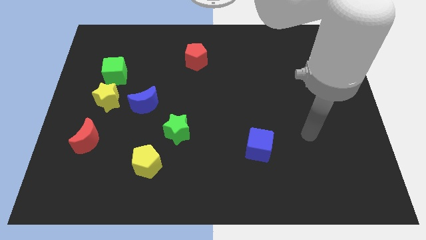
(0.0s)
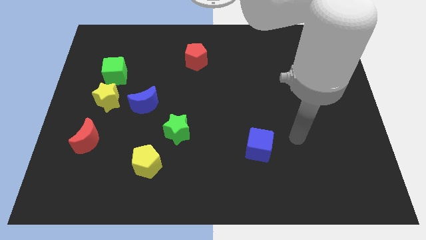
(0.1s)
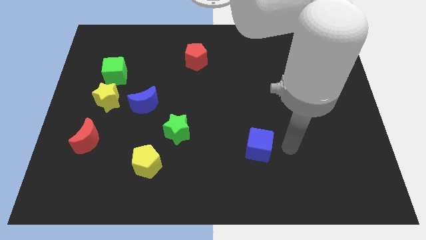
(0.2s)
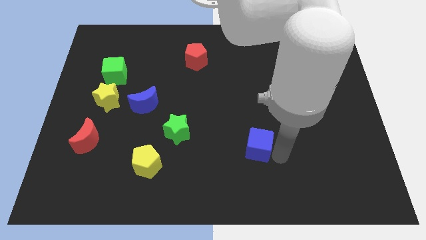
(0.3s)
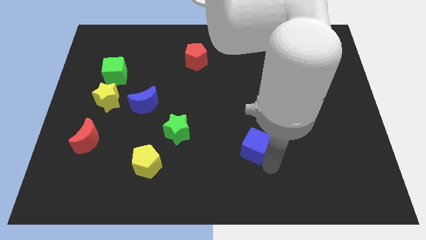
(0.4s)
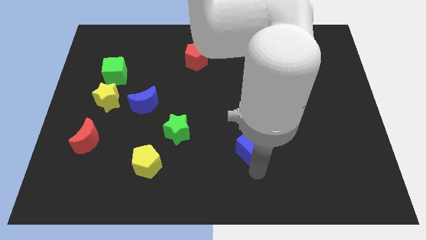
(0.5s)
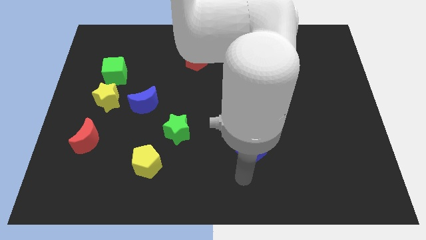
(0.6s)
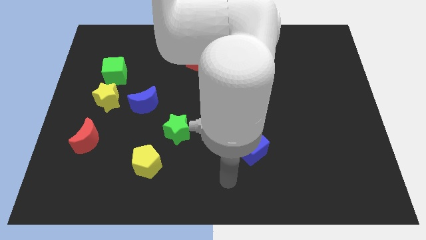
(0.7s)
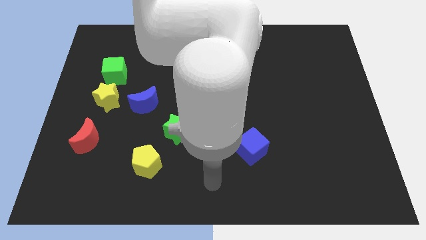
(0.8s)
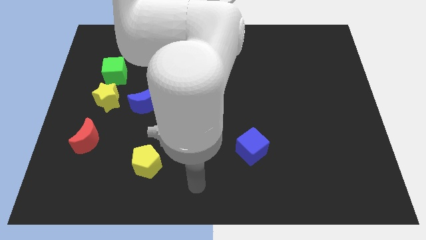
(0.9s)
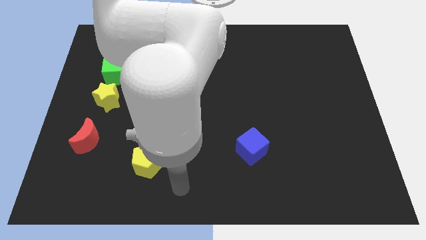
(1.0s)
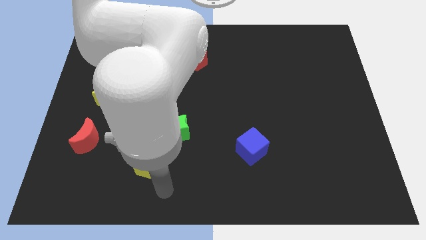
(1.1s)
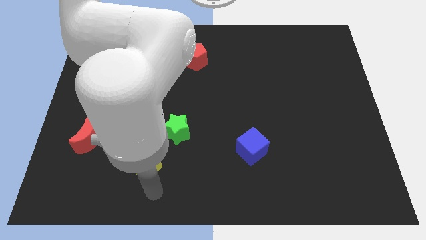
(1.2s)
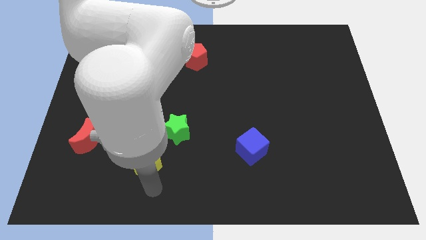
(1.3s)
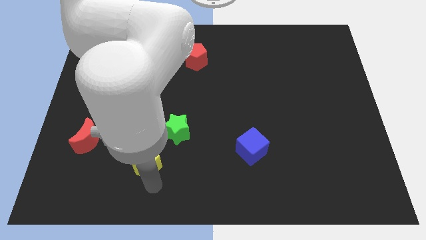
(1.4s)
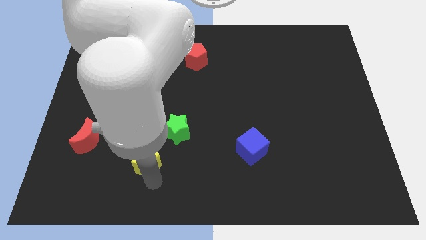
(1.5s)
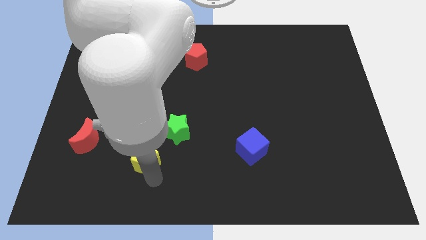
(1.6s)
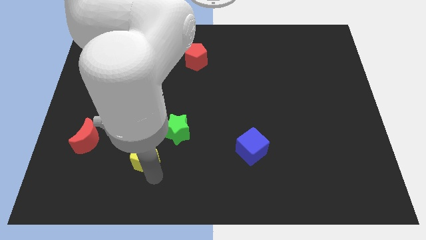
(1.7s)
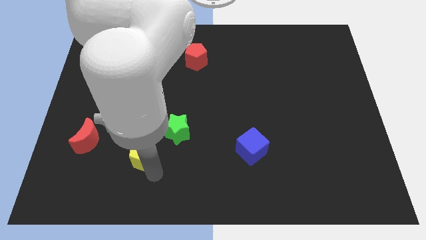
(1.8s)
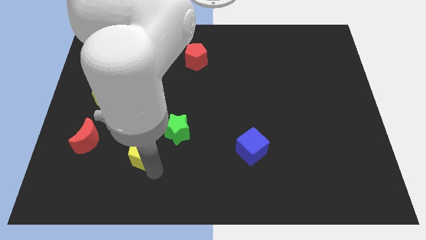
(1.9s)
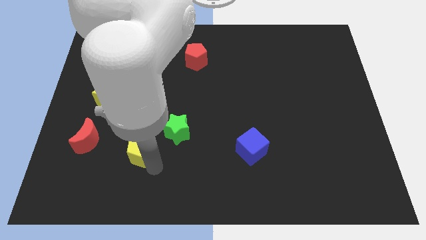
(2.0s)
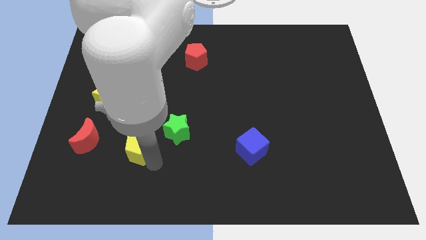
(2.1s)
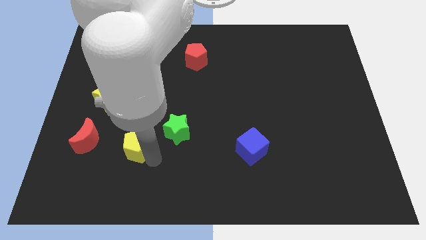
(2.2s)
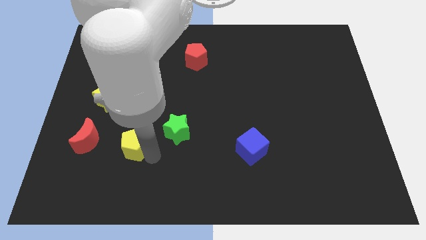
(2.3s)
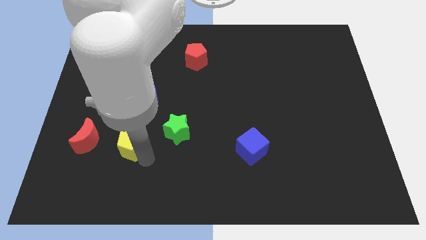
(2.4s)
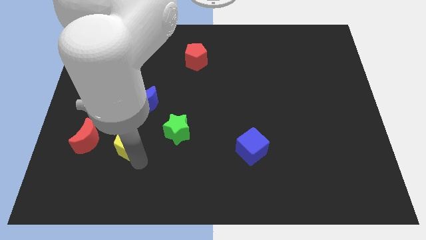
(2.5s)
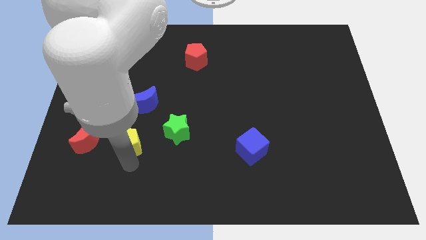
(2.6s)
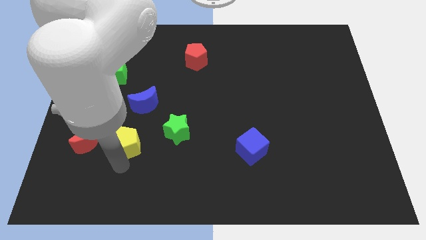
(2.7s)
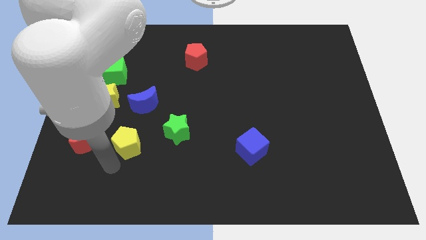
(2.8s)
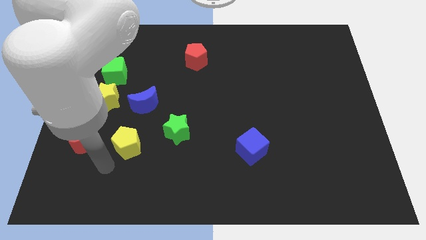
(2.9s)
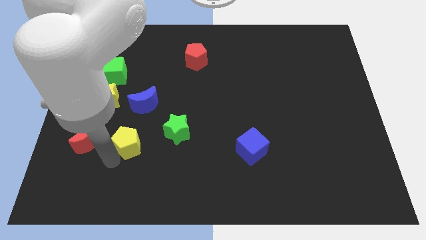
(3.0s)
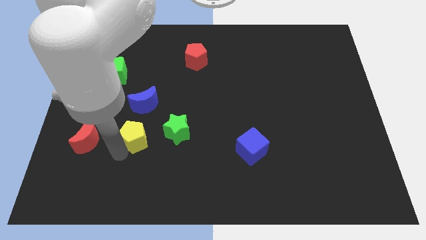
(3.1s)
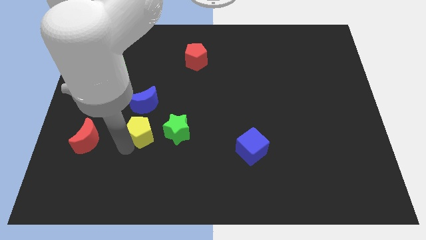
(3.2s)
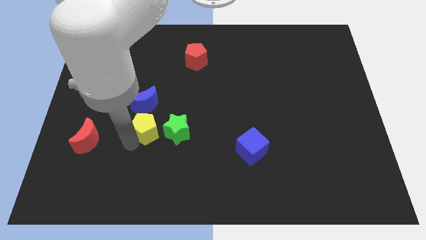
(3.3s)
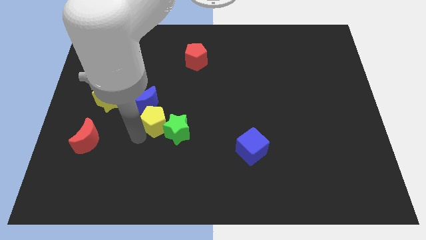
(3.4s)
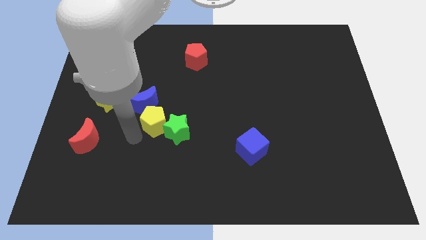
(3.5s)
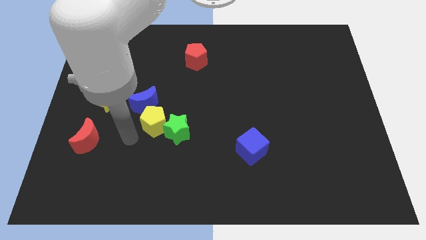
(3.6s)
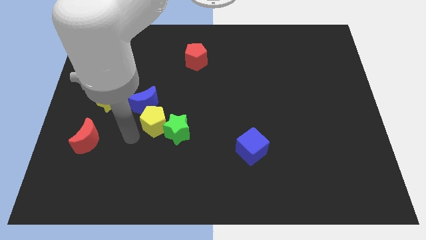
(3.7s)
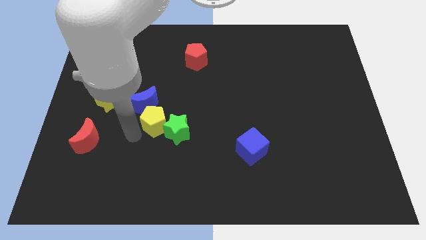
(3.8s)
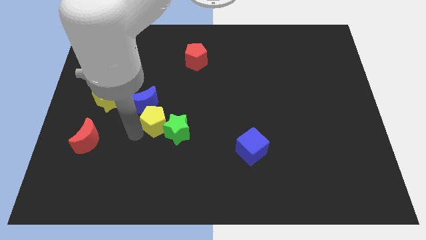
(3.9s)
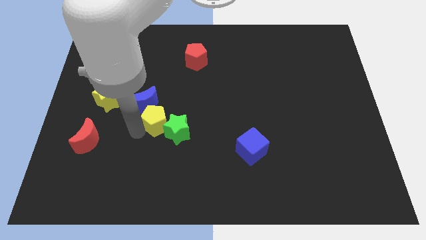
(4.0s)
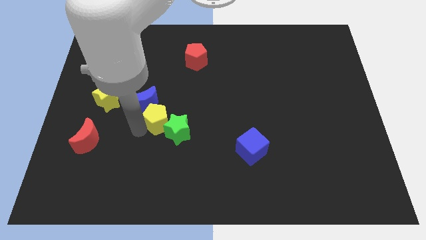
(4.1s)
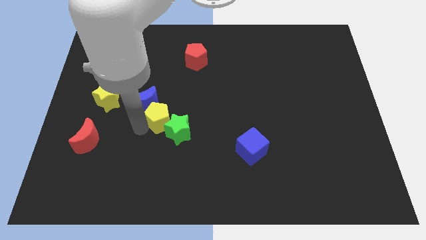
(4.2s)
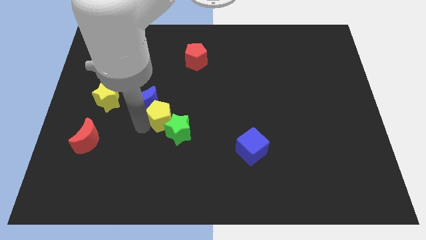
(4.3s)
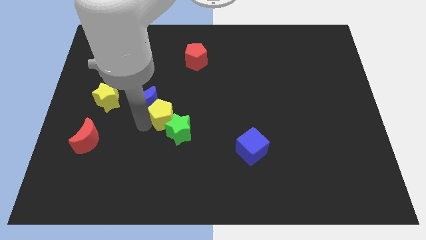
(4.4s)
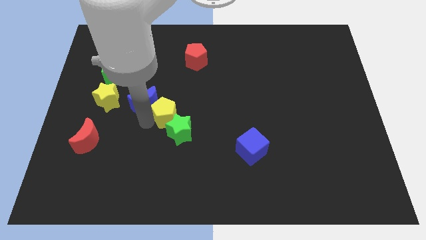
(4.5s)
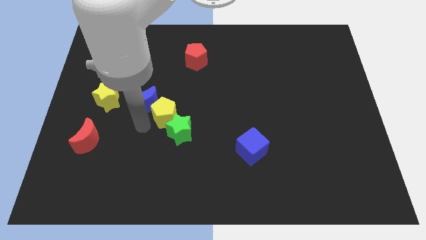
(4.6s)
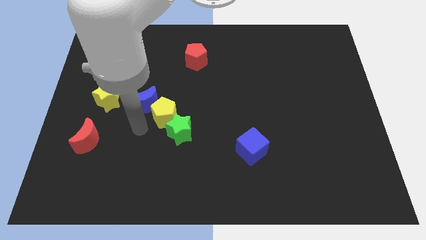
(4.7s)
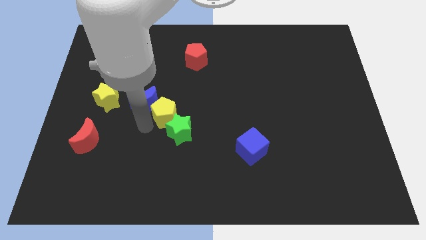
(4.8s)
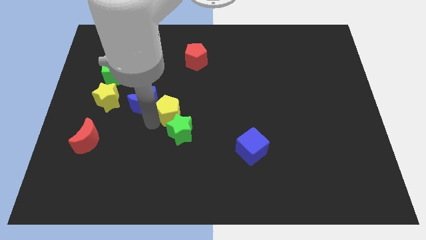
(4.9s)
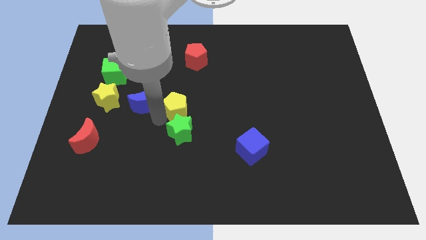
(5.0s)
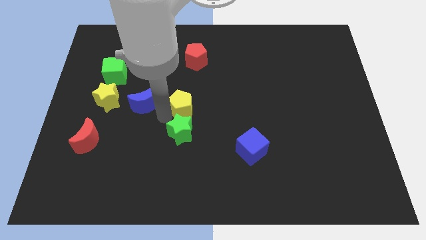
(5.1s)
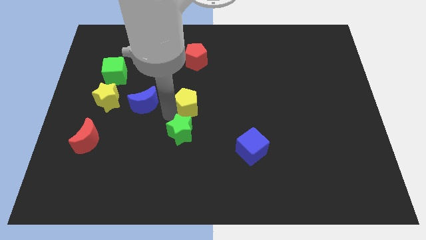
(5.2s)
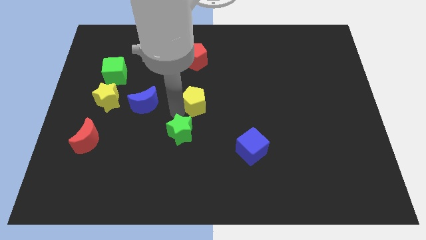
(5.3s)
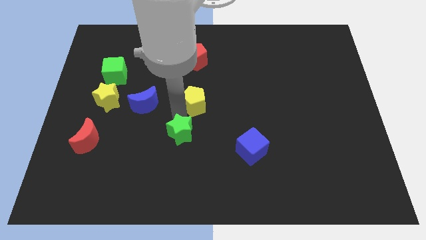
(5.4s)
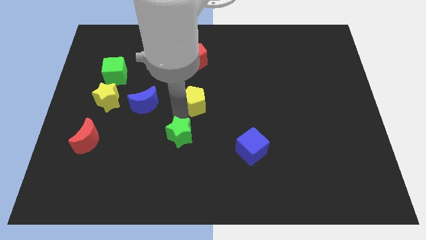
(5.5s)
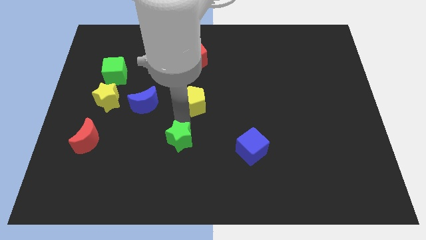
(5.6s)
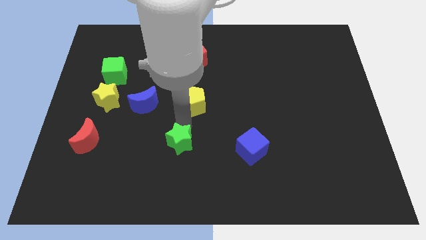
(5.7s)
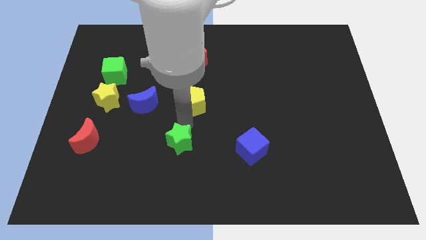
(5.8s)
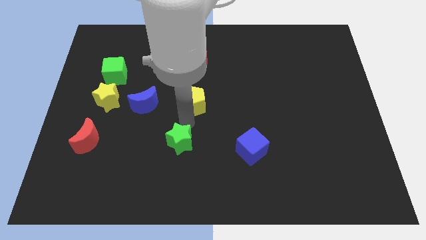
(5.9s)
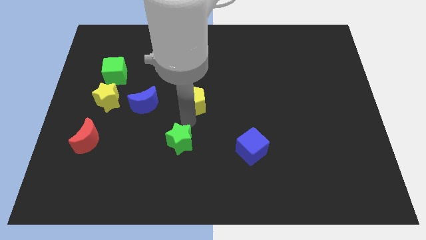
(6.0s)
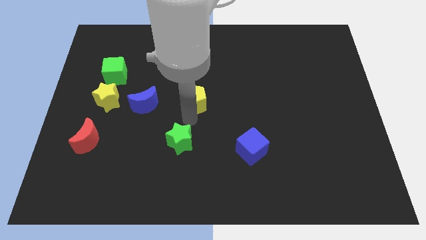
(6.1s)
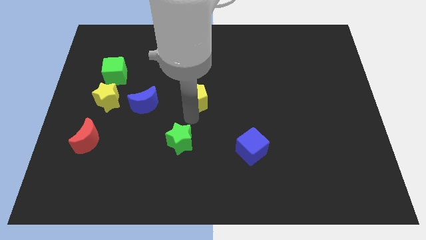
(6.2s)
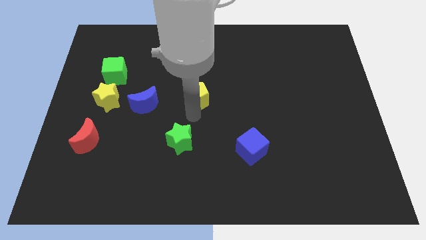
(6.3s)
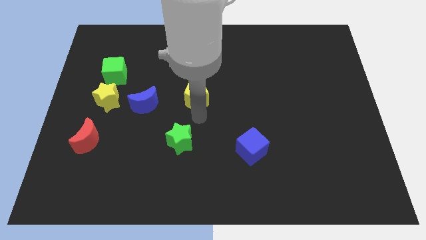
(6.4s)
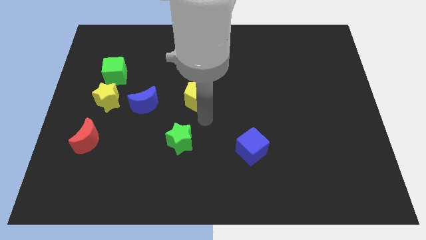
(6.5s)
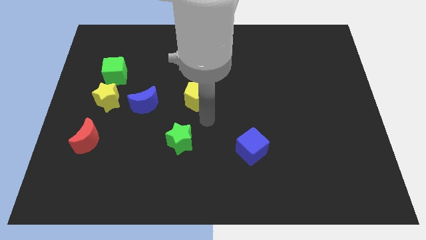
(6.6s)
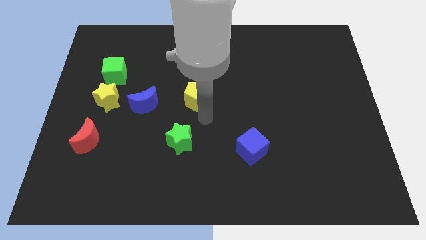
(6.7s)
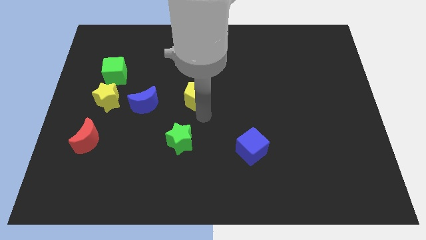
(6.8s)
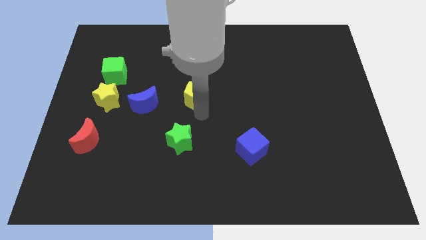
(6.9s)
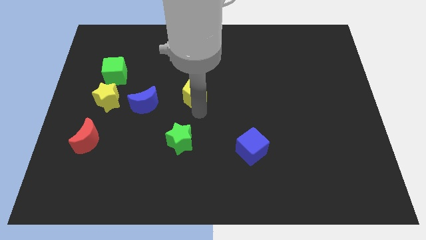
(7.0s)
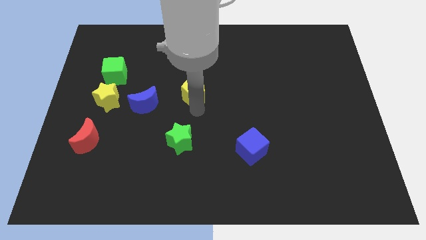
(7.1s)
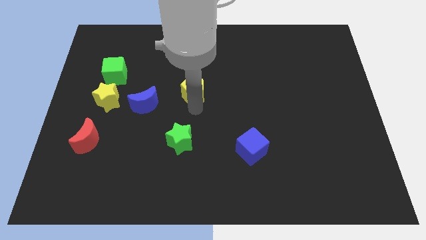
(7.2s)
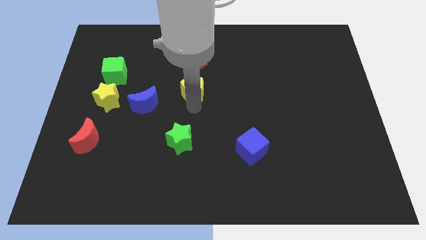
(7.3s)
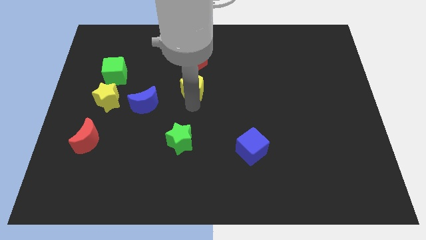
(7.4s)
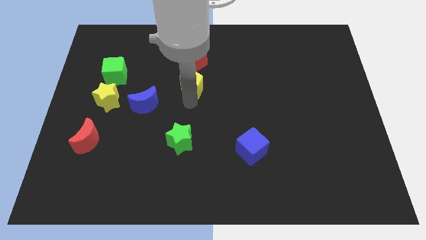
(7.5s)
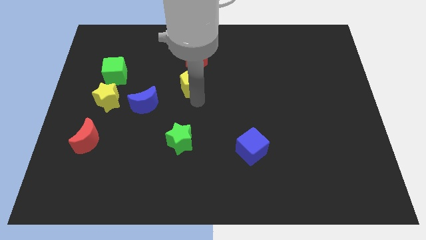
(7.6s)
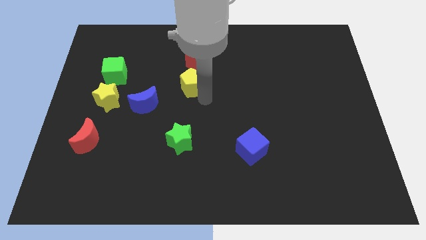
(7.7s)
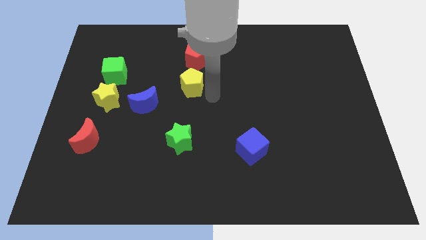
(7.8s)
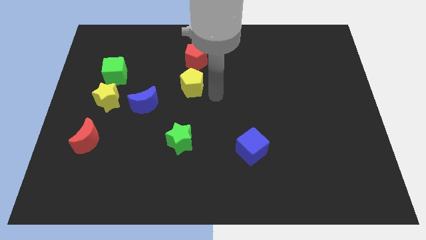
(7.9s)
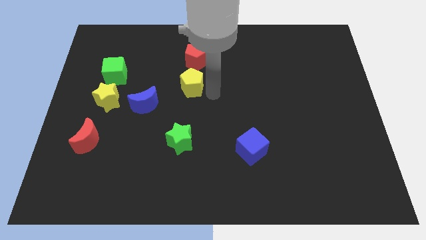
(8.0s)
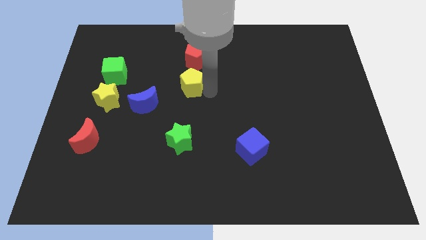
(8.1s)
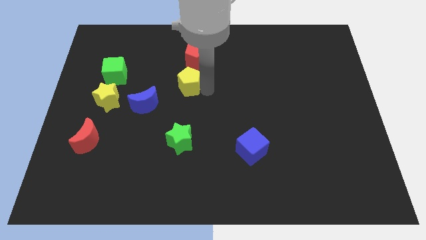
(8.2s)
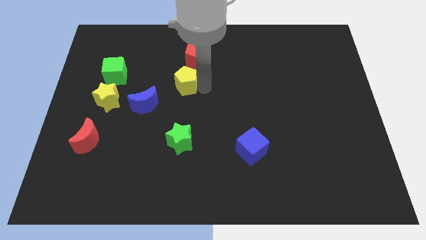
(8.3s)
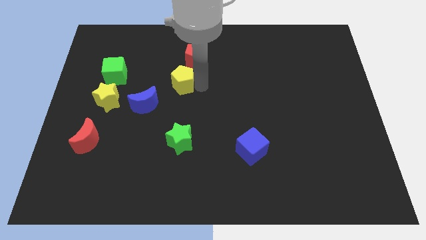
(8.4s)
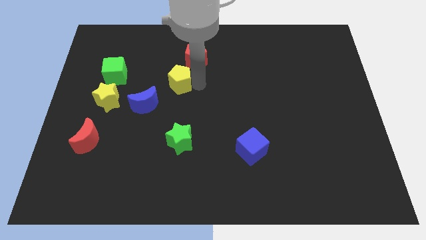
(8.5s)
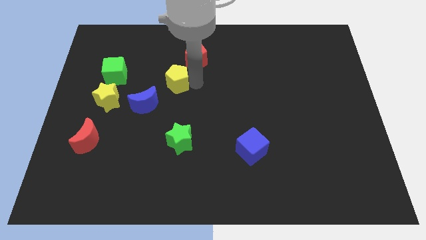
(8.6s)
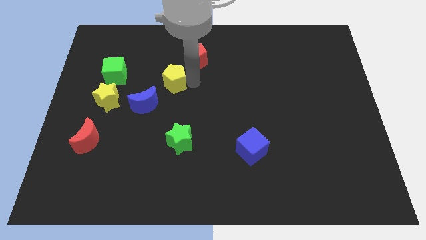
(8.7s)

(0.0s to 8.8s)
push the yellow pentagon just right of the green cube
